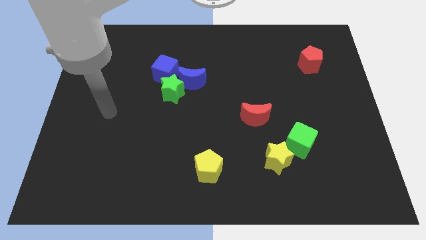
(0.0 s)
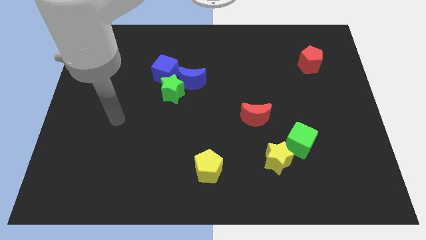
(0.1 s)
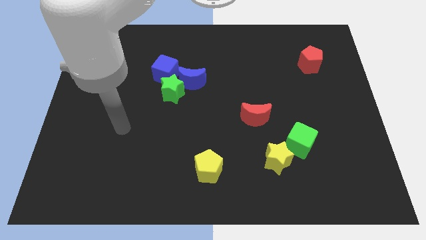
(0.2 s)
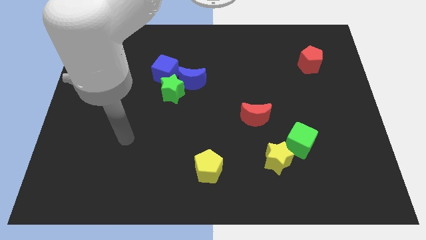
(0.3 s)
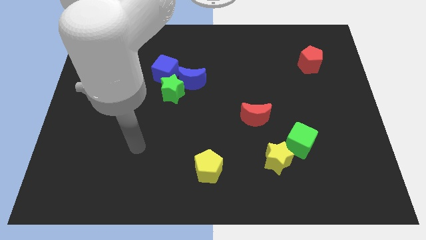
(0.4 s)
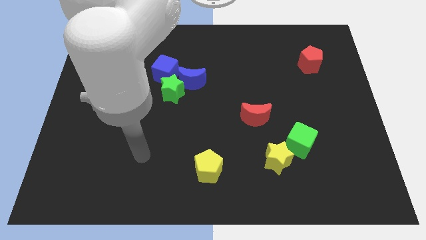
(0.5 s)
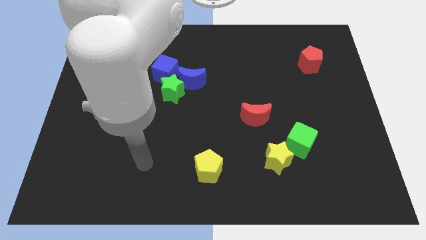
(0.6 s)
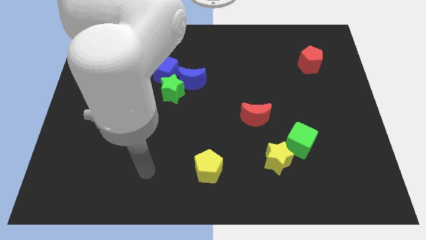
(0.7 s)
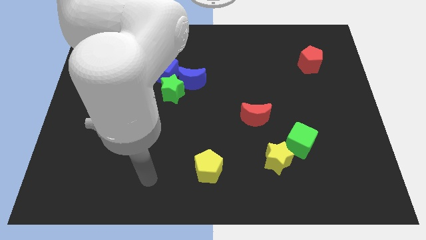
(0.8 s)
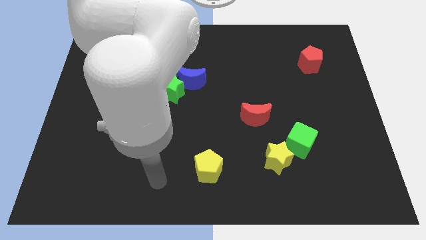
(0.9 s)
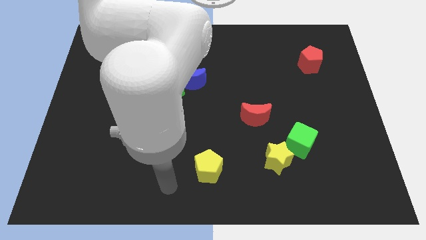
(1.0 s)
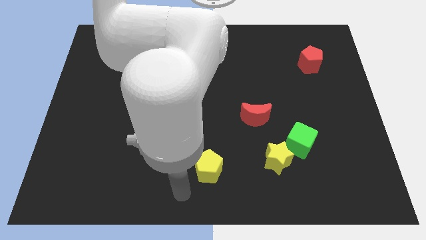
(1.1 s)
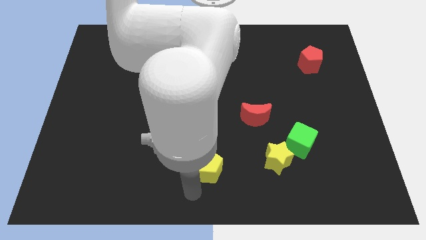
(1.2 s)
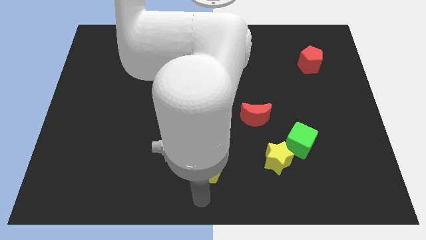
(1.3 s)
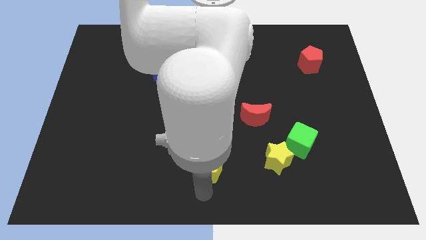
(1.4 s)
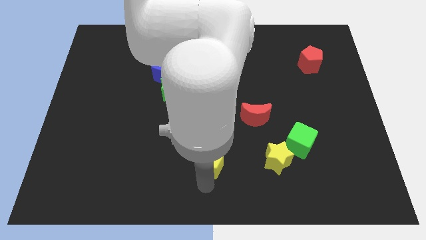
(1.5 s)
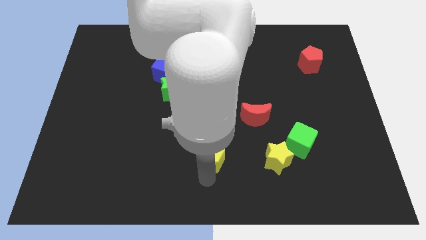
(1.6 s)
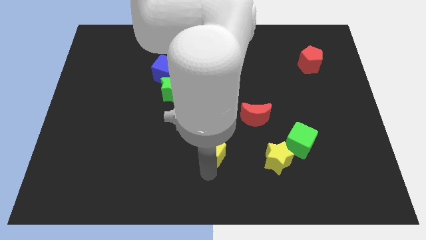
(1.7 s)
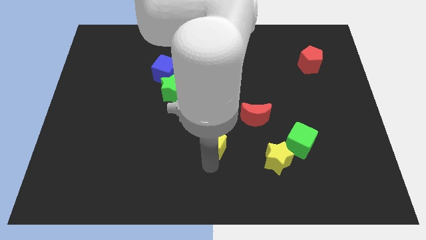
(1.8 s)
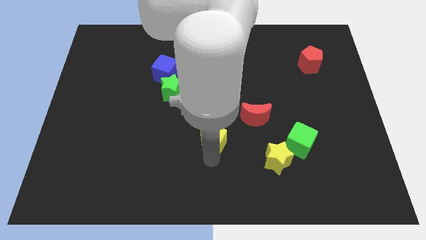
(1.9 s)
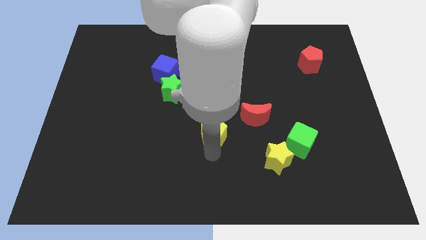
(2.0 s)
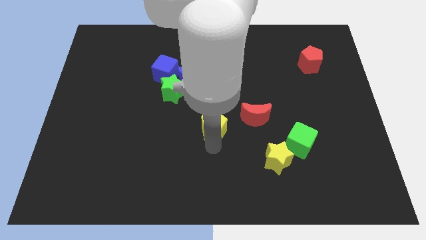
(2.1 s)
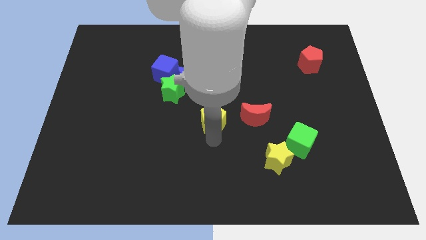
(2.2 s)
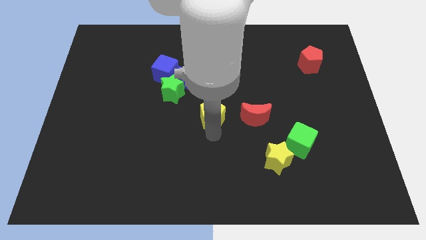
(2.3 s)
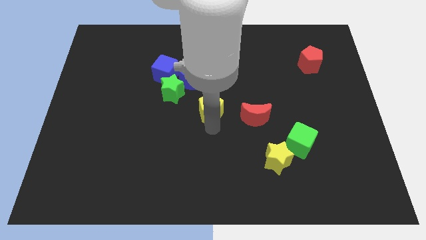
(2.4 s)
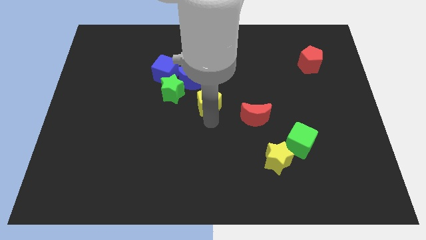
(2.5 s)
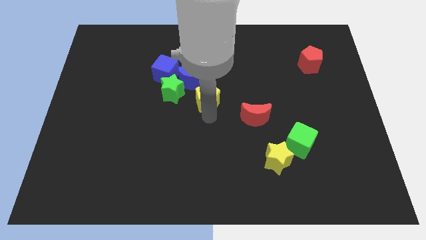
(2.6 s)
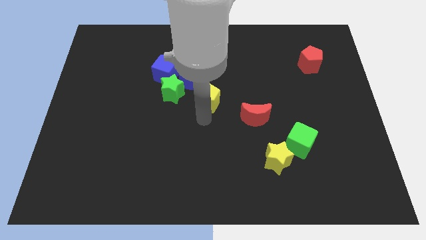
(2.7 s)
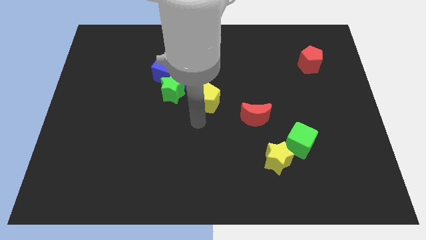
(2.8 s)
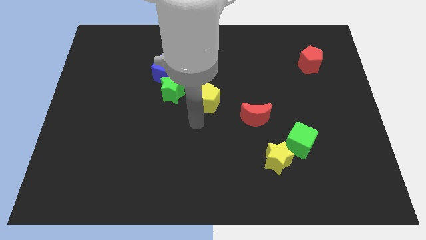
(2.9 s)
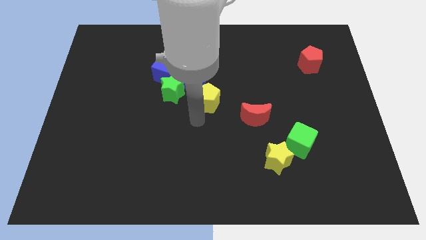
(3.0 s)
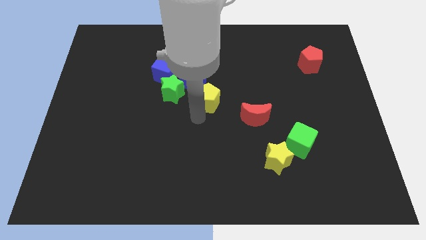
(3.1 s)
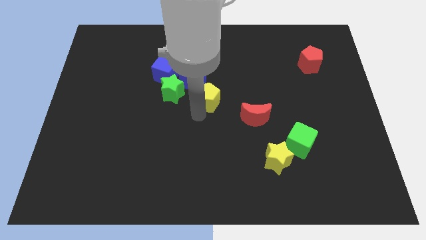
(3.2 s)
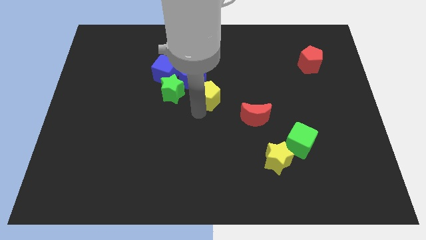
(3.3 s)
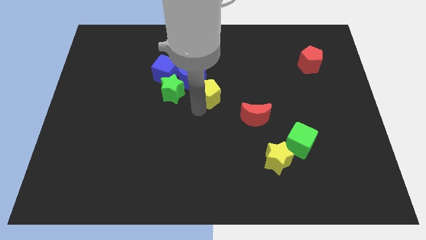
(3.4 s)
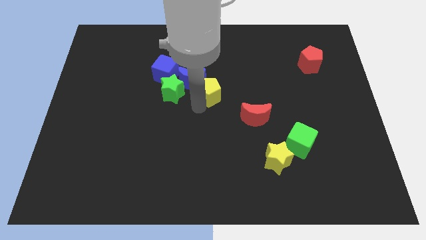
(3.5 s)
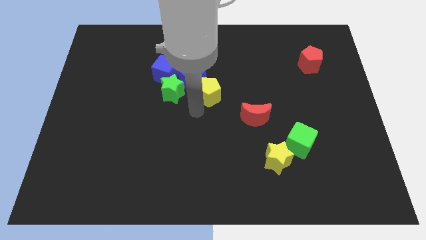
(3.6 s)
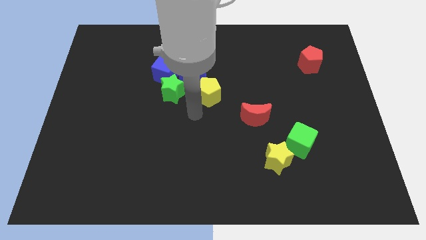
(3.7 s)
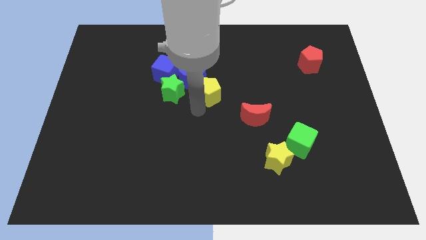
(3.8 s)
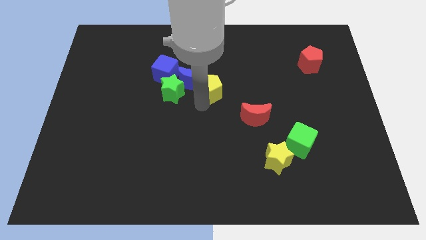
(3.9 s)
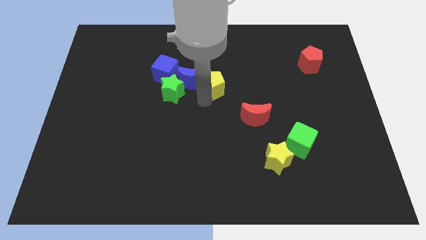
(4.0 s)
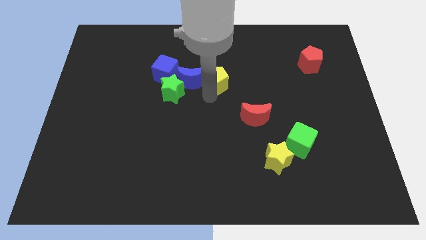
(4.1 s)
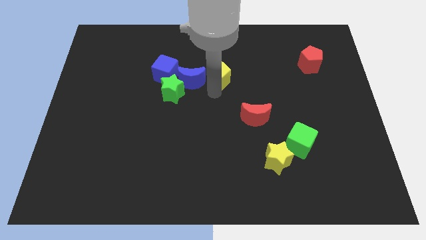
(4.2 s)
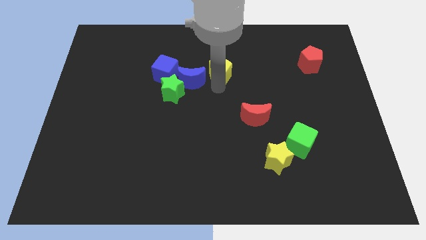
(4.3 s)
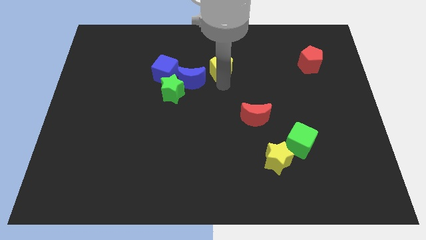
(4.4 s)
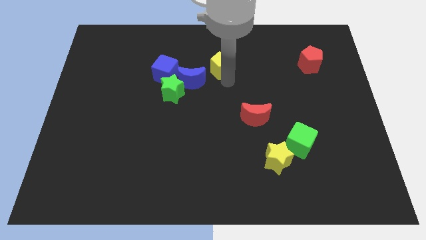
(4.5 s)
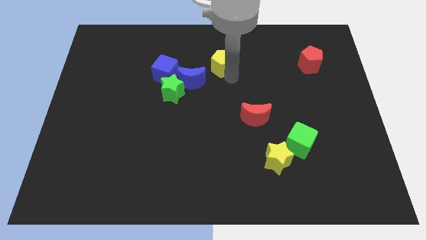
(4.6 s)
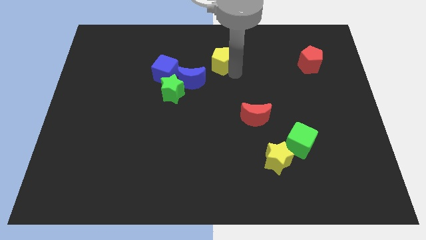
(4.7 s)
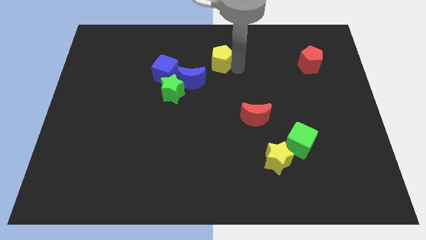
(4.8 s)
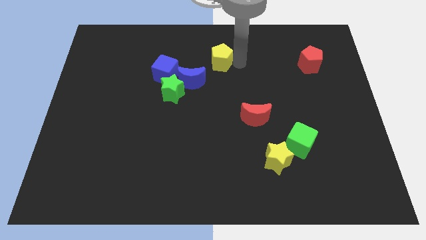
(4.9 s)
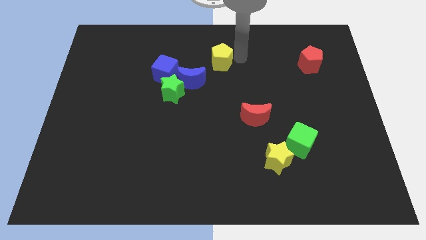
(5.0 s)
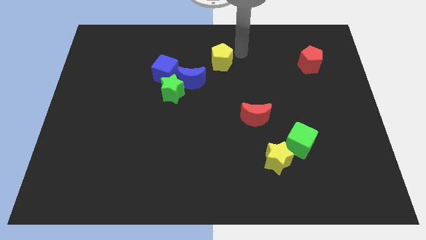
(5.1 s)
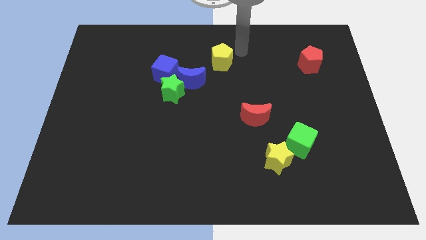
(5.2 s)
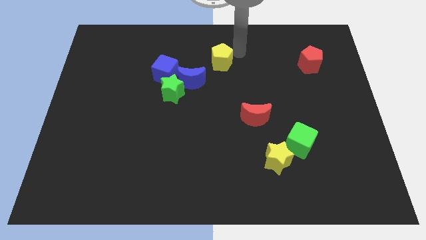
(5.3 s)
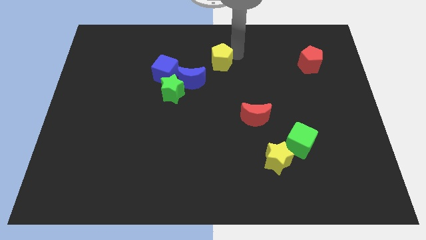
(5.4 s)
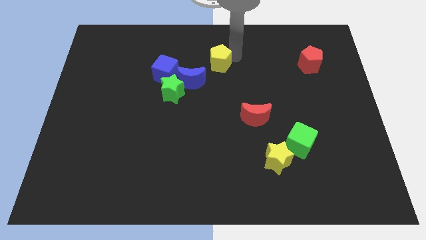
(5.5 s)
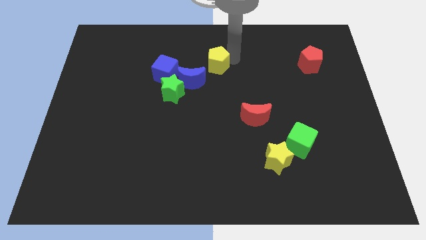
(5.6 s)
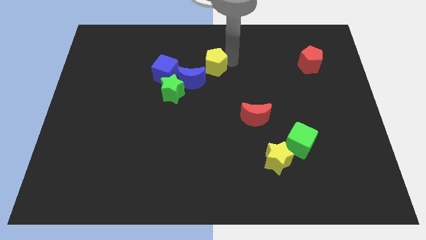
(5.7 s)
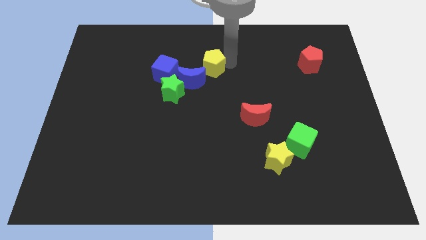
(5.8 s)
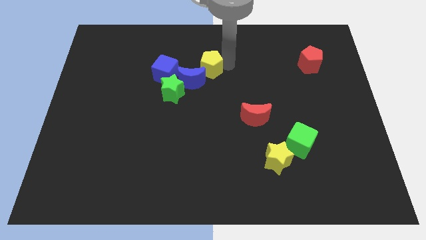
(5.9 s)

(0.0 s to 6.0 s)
slide the yellow pentagon to the top right side of the green star

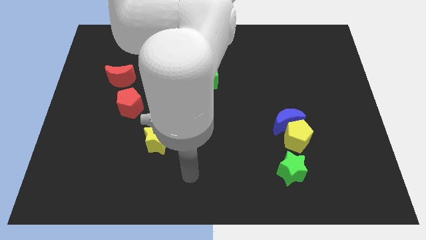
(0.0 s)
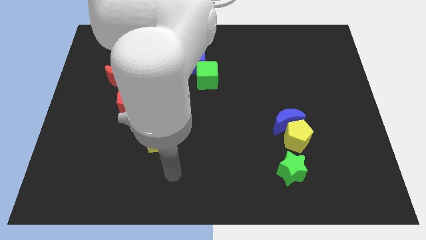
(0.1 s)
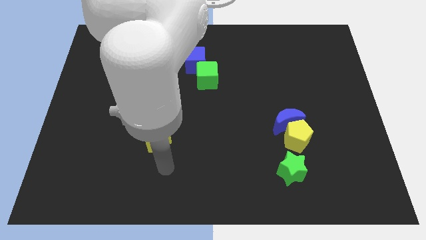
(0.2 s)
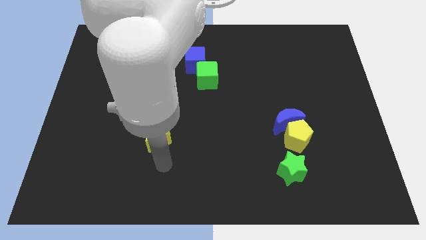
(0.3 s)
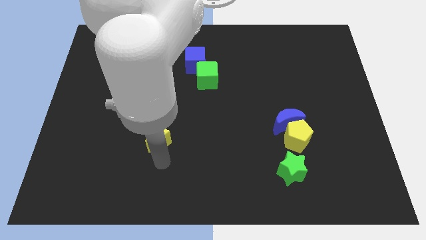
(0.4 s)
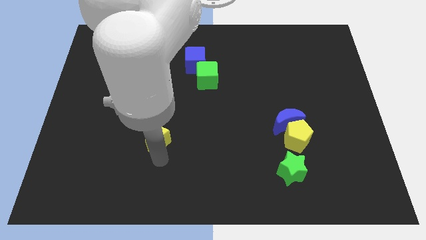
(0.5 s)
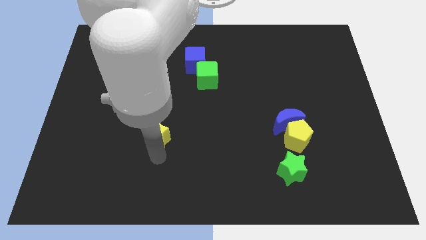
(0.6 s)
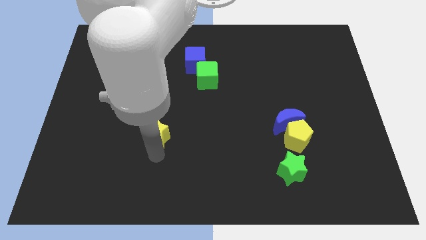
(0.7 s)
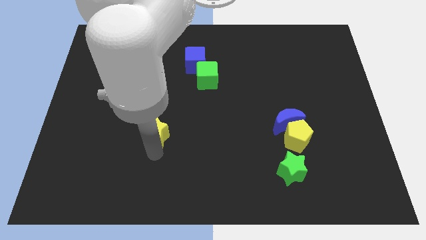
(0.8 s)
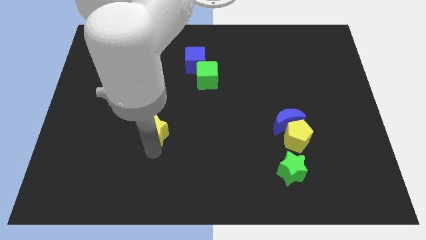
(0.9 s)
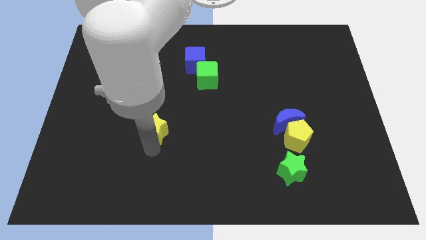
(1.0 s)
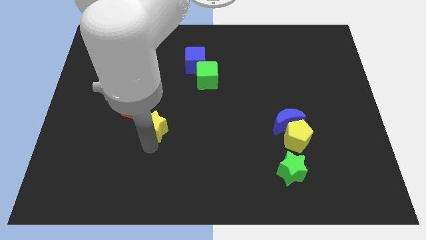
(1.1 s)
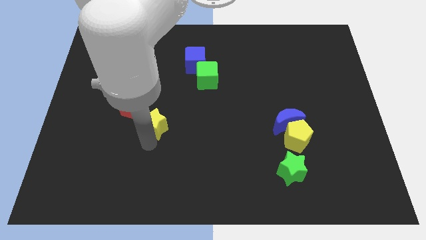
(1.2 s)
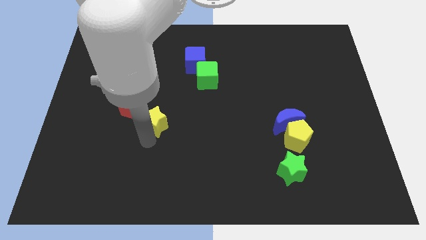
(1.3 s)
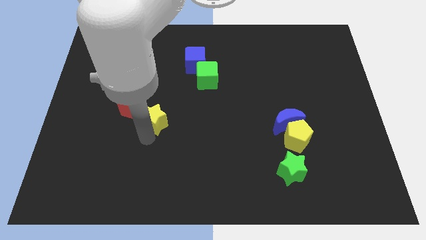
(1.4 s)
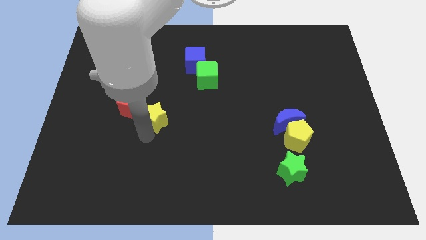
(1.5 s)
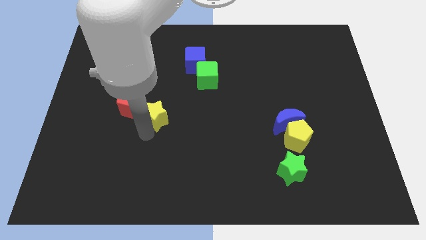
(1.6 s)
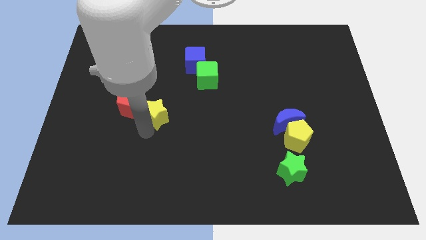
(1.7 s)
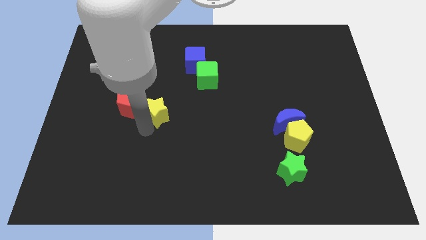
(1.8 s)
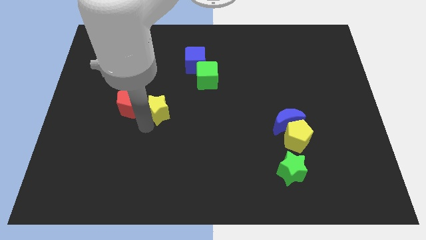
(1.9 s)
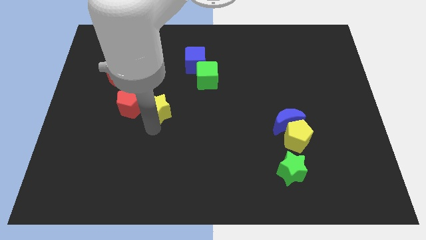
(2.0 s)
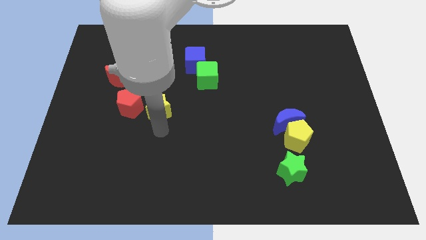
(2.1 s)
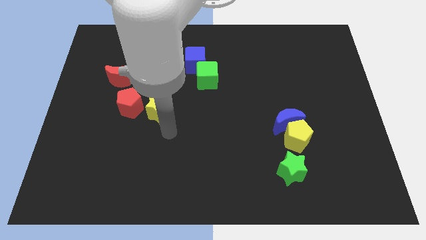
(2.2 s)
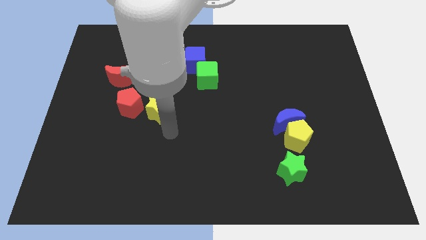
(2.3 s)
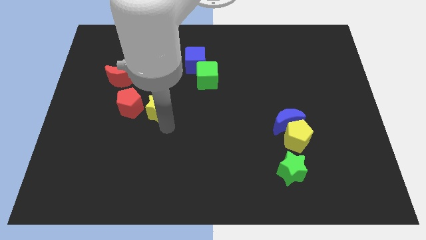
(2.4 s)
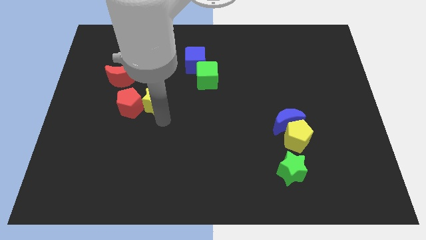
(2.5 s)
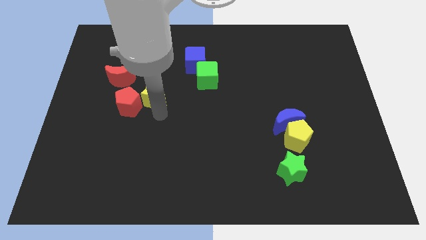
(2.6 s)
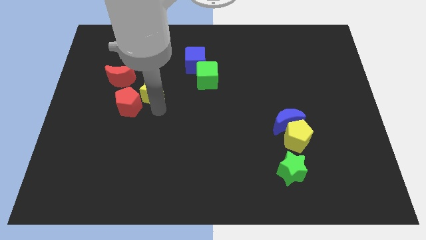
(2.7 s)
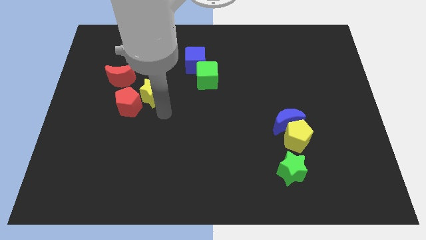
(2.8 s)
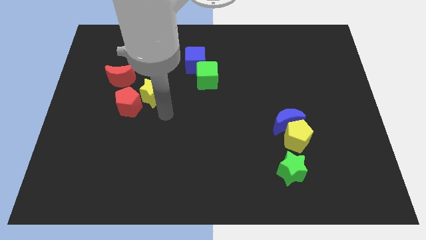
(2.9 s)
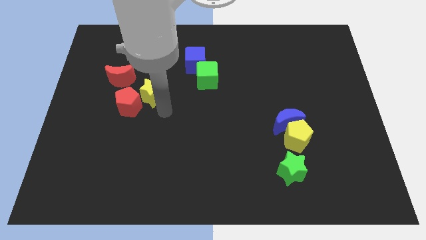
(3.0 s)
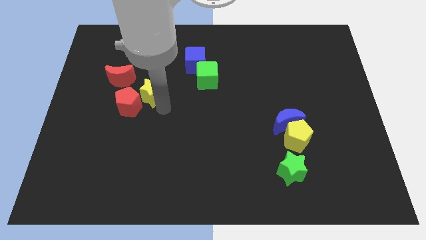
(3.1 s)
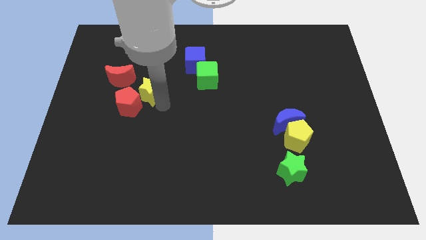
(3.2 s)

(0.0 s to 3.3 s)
push the yellow star to the top side of the red pentagon
